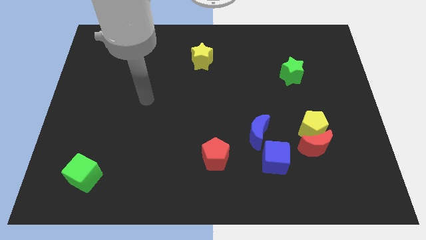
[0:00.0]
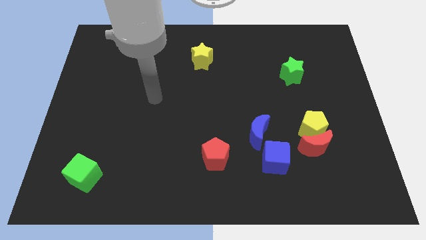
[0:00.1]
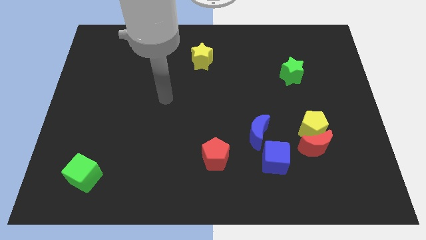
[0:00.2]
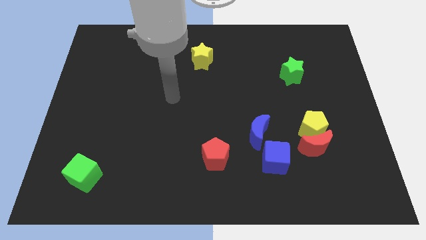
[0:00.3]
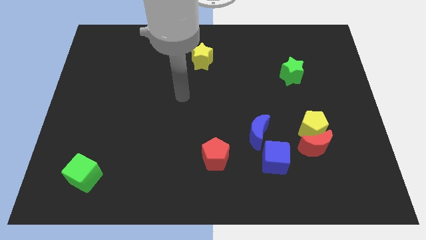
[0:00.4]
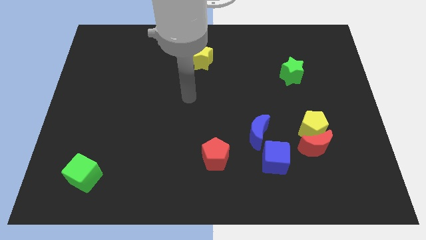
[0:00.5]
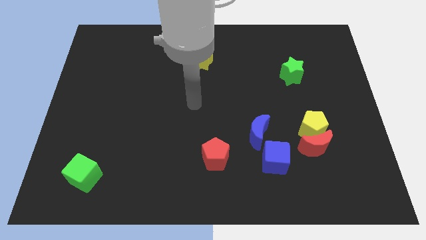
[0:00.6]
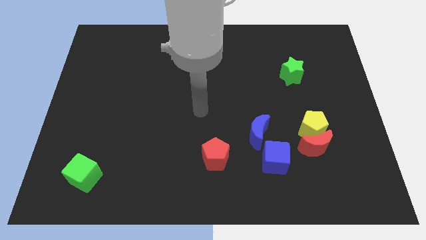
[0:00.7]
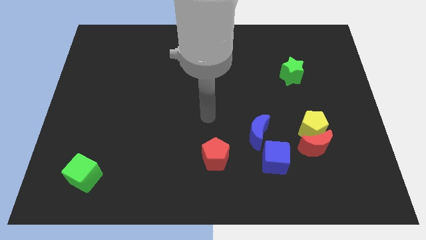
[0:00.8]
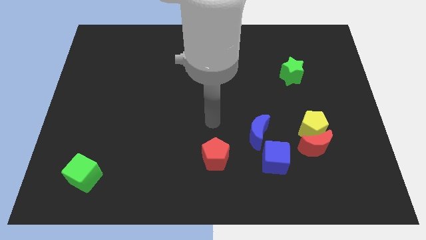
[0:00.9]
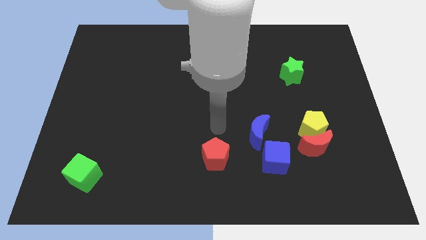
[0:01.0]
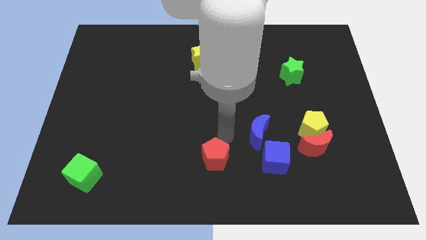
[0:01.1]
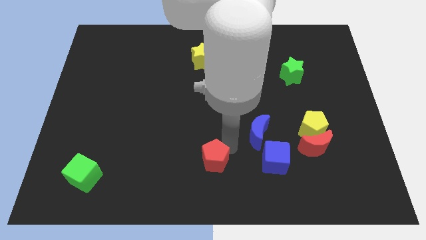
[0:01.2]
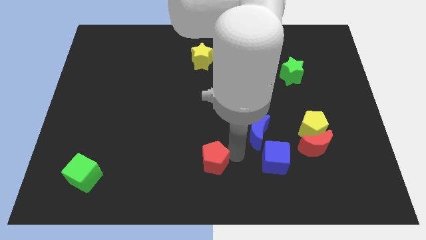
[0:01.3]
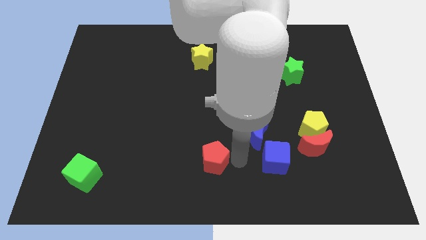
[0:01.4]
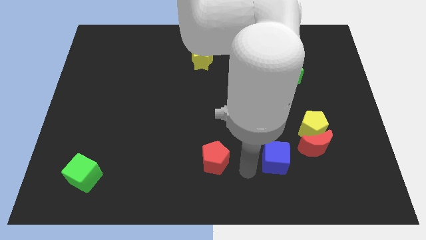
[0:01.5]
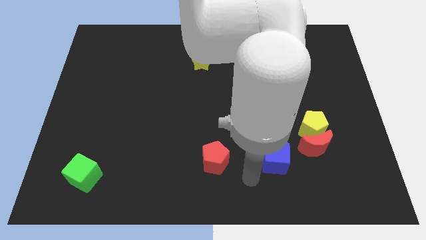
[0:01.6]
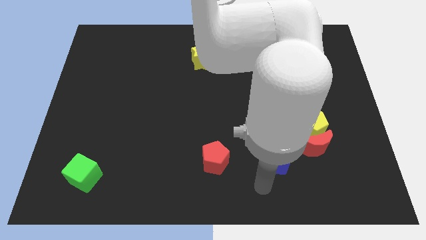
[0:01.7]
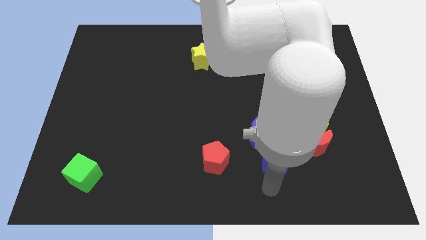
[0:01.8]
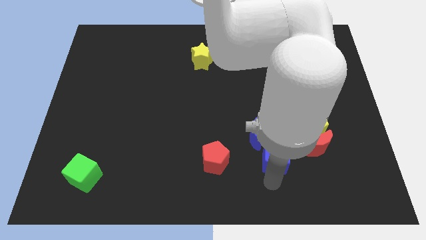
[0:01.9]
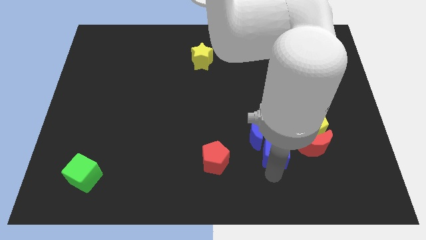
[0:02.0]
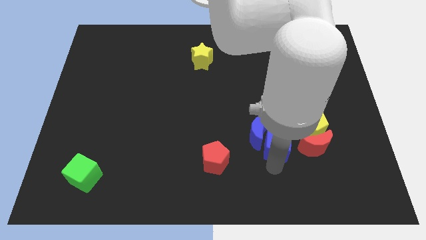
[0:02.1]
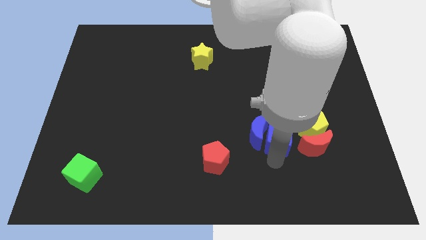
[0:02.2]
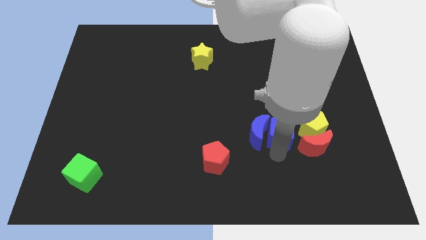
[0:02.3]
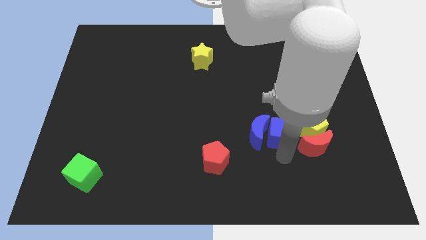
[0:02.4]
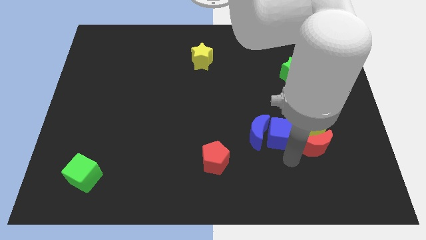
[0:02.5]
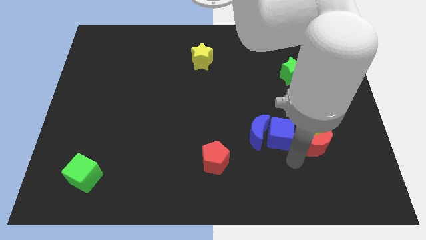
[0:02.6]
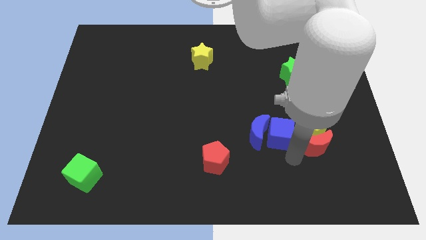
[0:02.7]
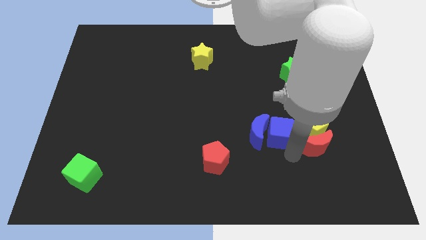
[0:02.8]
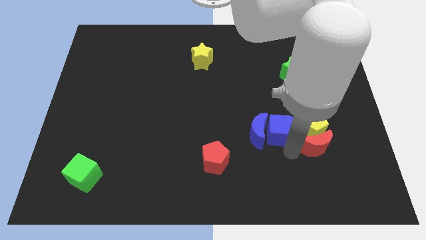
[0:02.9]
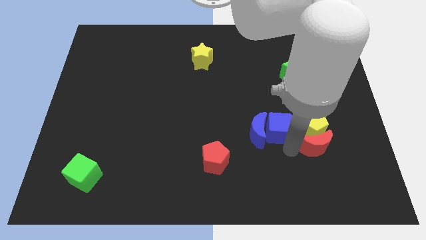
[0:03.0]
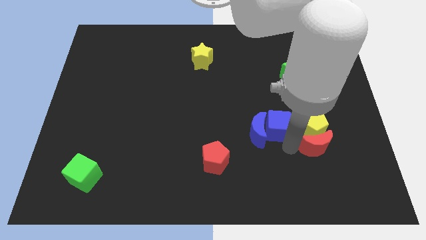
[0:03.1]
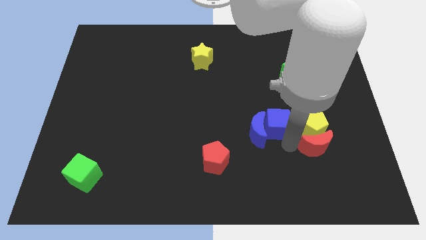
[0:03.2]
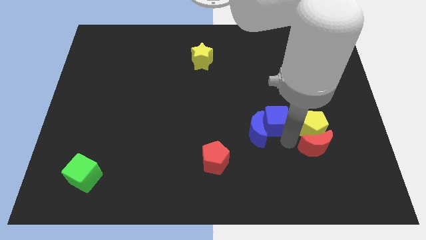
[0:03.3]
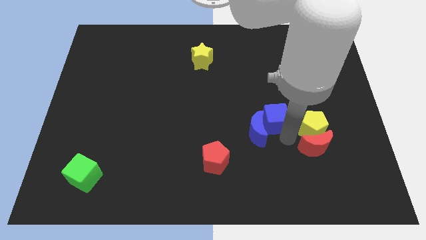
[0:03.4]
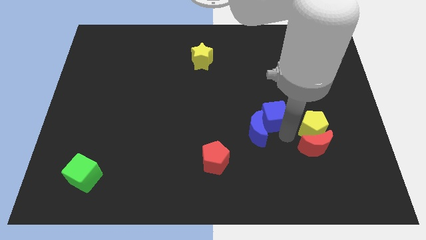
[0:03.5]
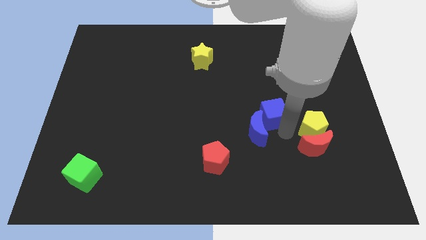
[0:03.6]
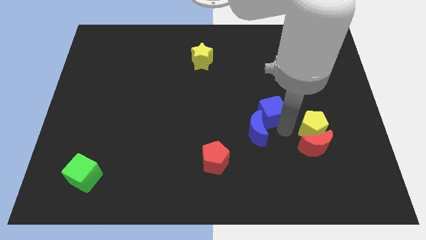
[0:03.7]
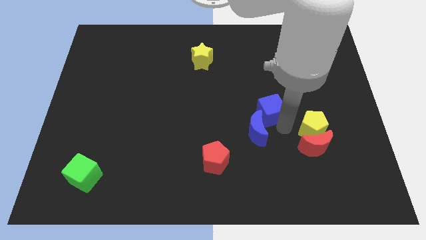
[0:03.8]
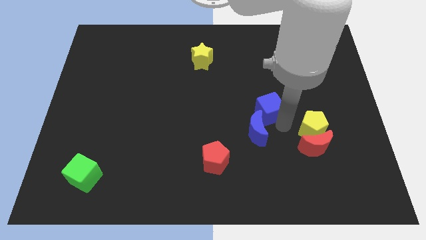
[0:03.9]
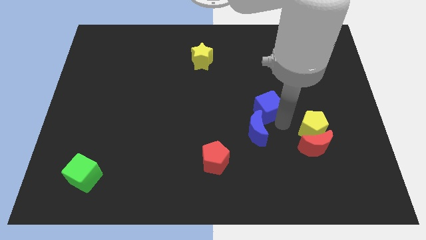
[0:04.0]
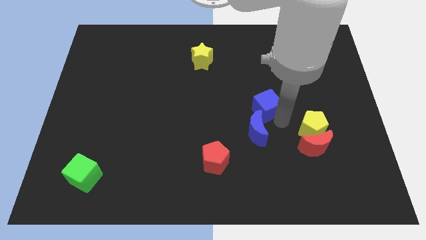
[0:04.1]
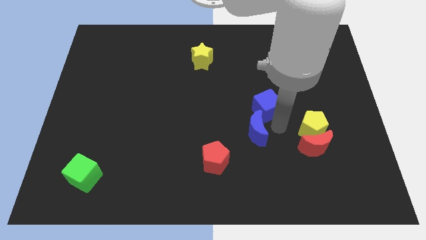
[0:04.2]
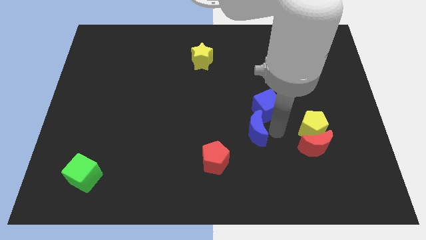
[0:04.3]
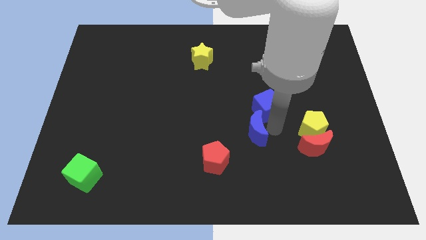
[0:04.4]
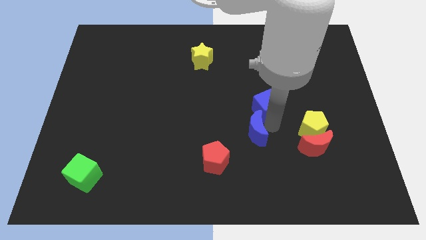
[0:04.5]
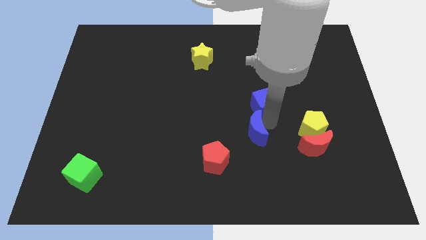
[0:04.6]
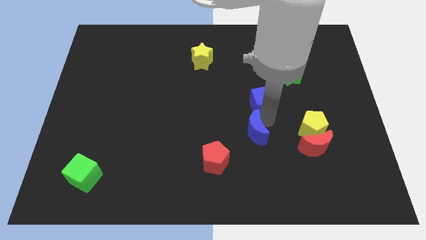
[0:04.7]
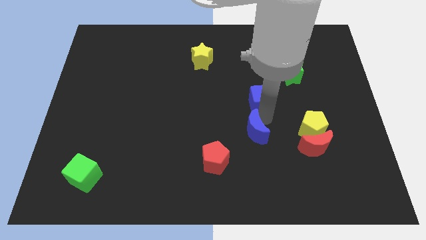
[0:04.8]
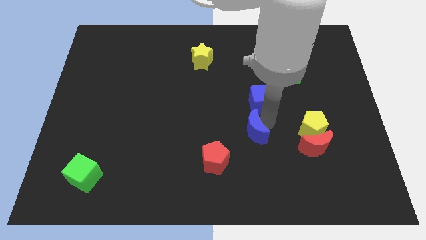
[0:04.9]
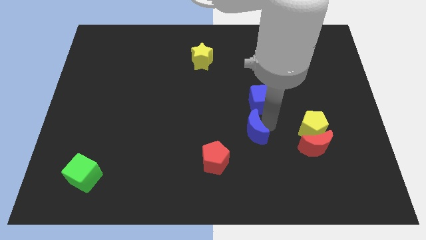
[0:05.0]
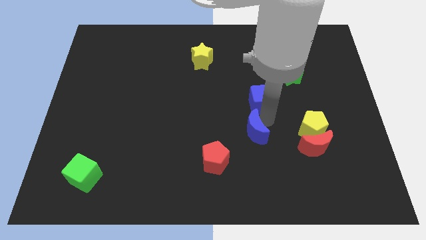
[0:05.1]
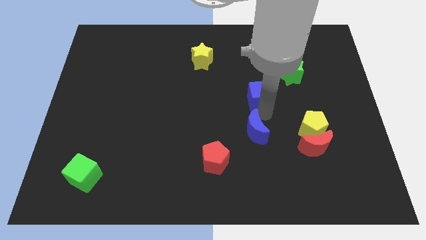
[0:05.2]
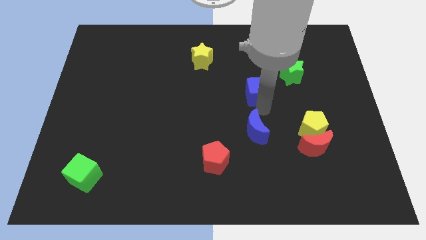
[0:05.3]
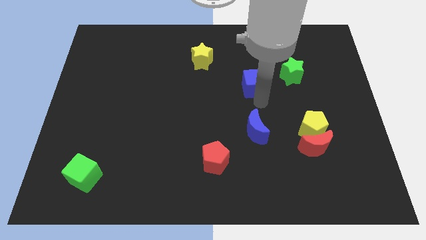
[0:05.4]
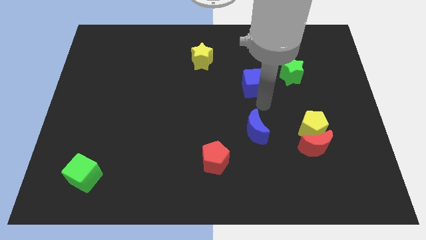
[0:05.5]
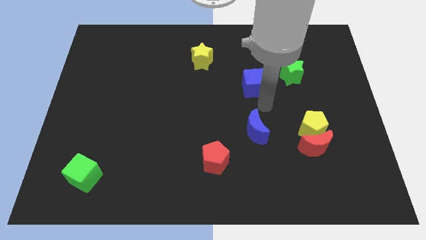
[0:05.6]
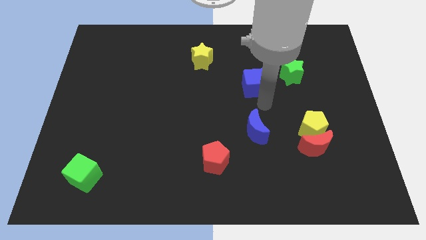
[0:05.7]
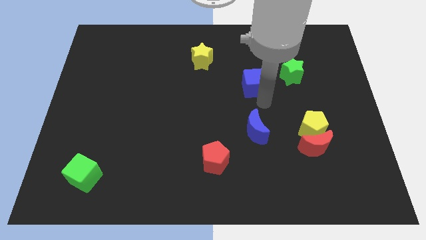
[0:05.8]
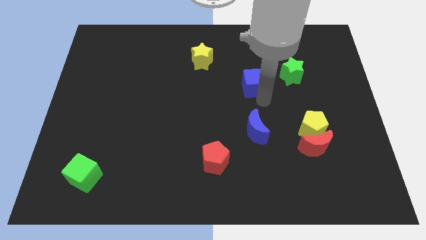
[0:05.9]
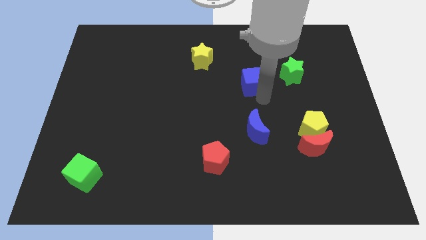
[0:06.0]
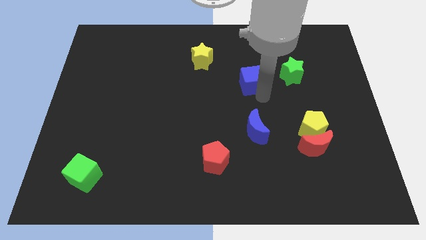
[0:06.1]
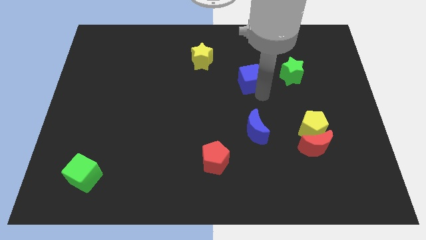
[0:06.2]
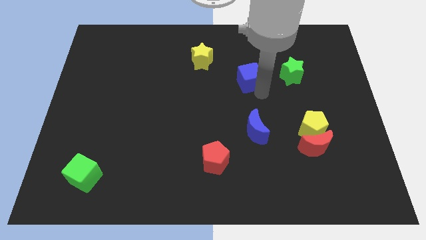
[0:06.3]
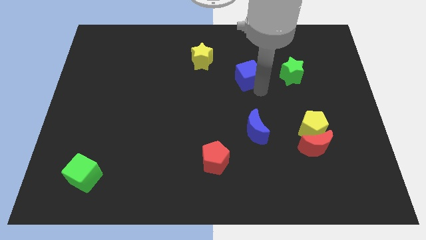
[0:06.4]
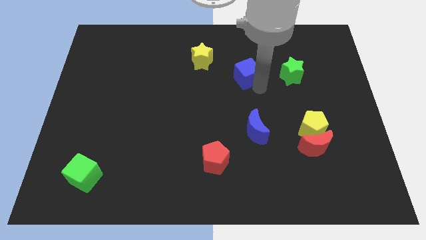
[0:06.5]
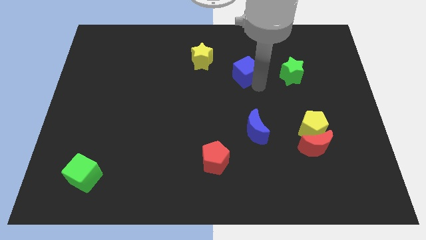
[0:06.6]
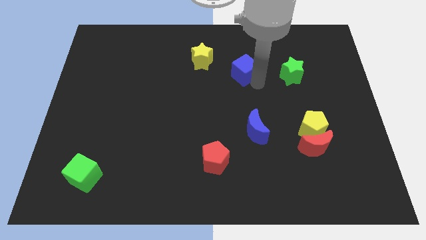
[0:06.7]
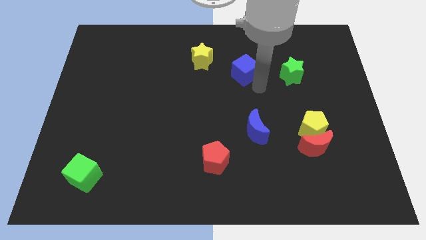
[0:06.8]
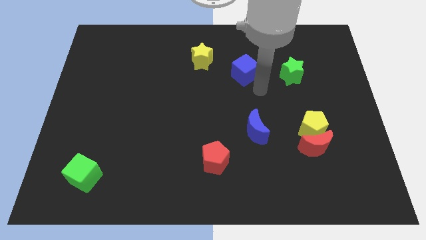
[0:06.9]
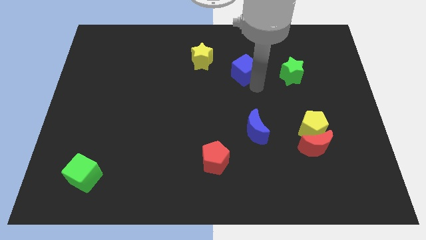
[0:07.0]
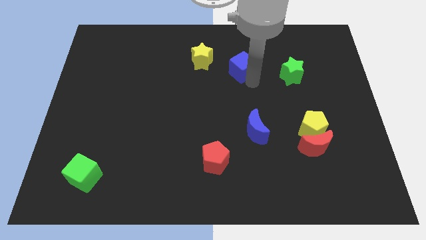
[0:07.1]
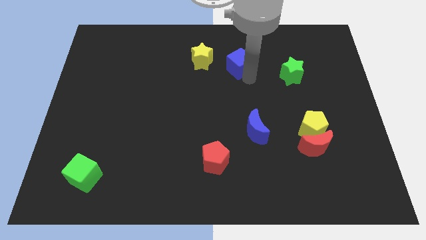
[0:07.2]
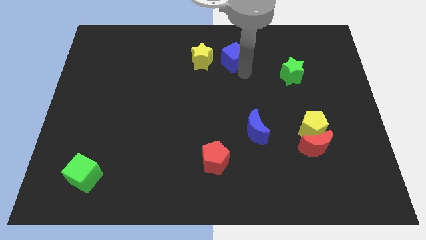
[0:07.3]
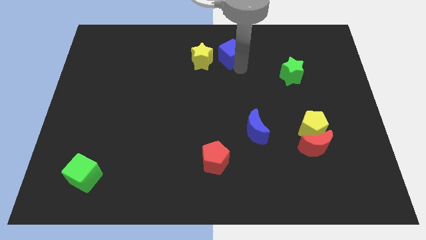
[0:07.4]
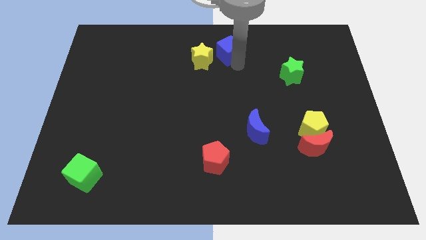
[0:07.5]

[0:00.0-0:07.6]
slide the blue cube to the top

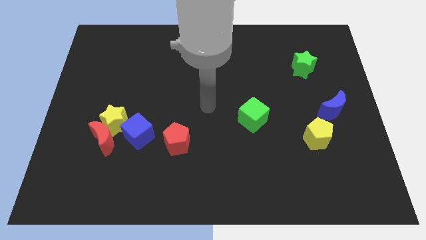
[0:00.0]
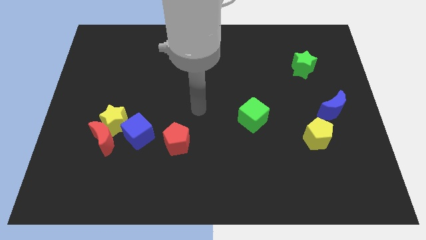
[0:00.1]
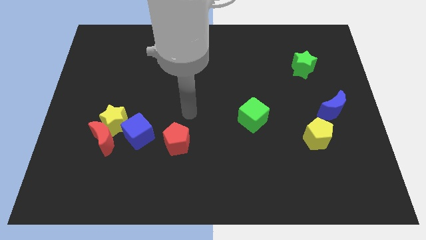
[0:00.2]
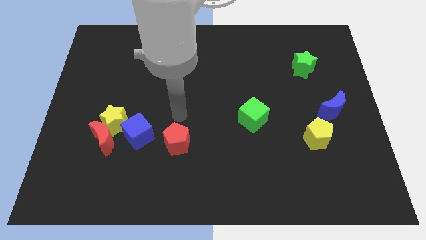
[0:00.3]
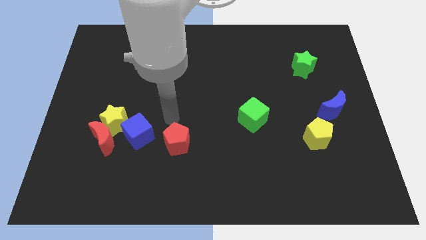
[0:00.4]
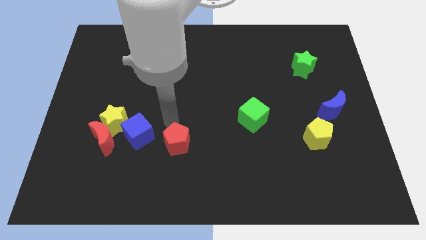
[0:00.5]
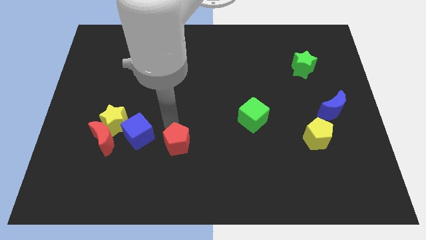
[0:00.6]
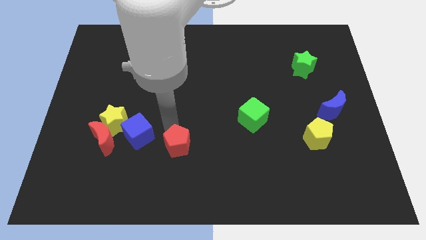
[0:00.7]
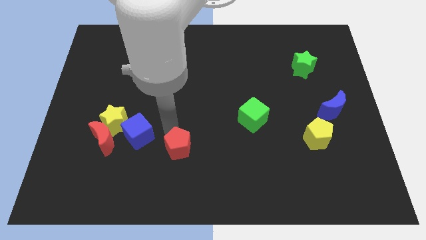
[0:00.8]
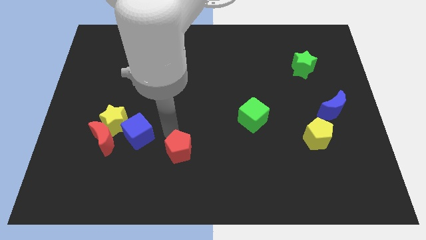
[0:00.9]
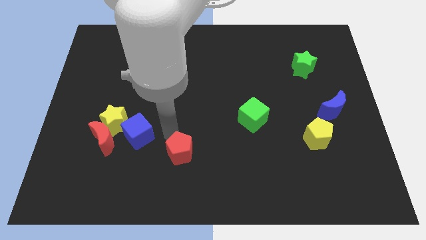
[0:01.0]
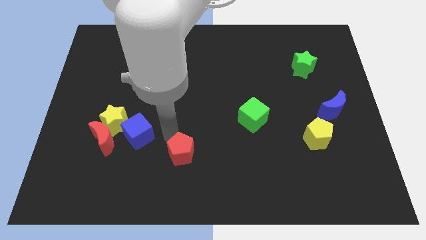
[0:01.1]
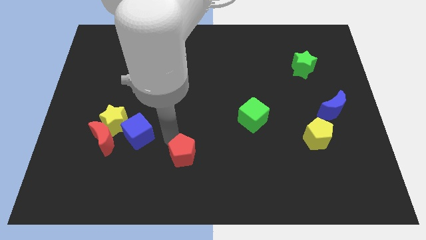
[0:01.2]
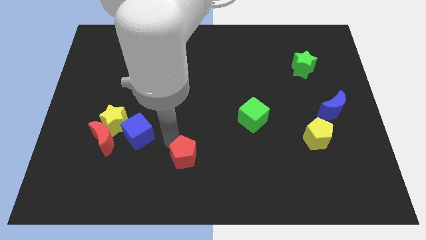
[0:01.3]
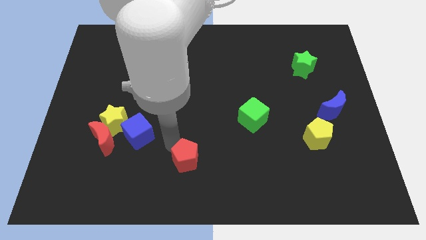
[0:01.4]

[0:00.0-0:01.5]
put the red pentagon to the bottom
